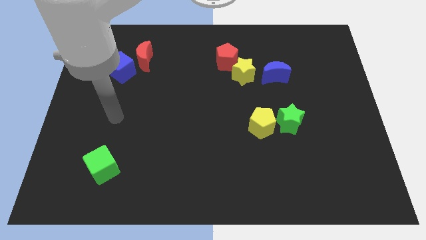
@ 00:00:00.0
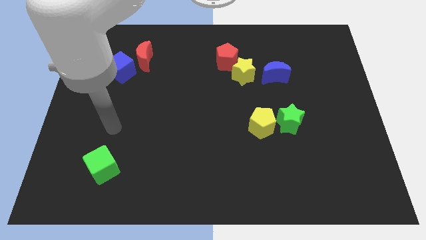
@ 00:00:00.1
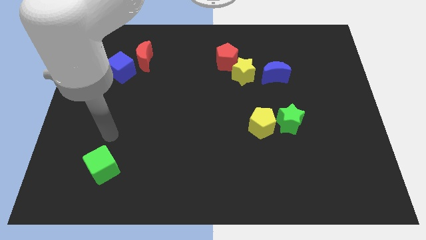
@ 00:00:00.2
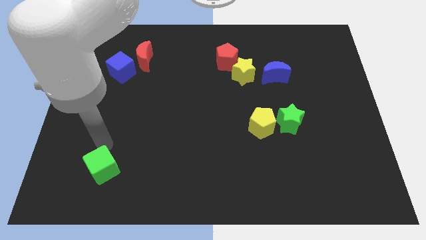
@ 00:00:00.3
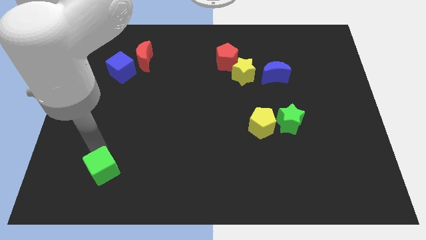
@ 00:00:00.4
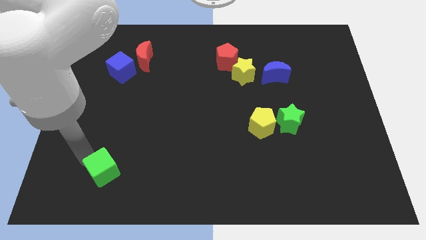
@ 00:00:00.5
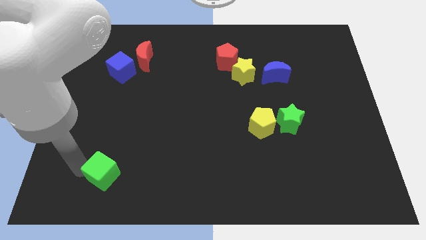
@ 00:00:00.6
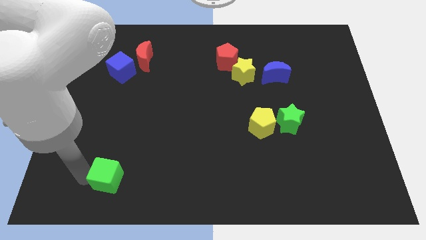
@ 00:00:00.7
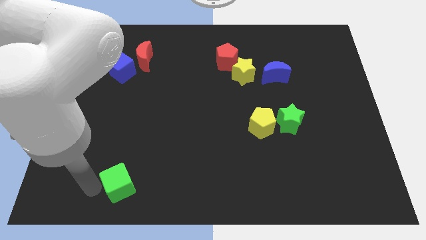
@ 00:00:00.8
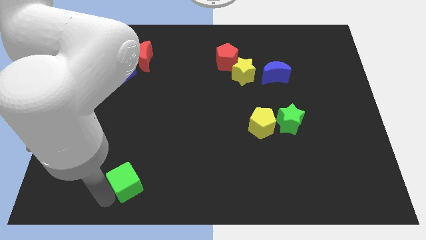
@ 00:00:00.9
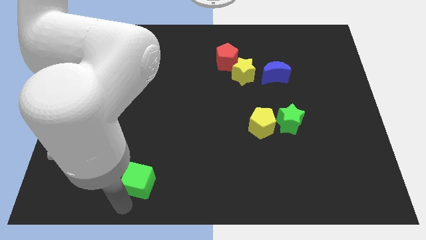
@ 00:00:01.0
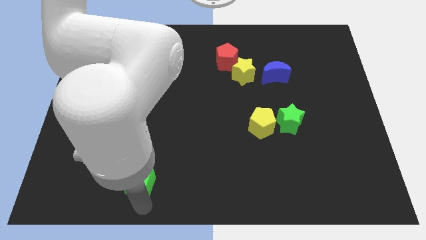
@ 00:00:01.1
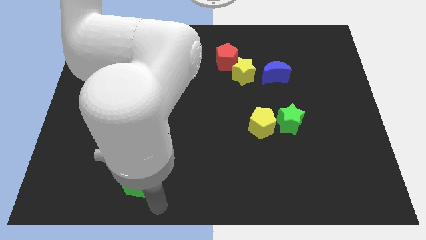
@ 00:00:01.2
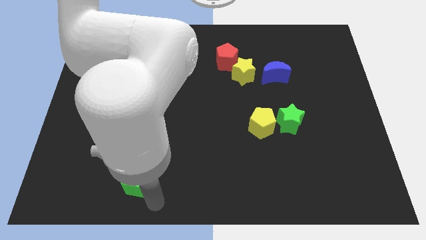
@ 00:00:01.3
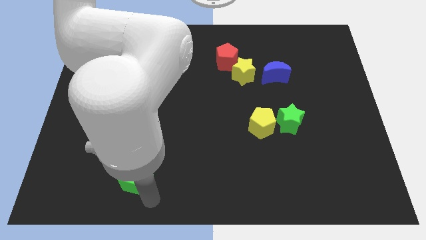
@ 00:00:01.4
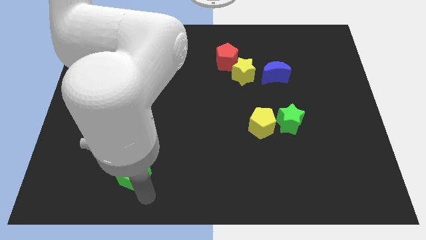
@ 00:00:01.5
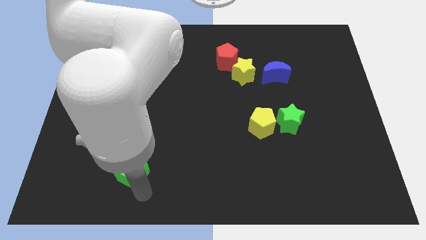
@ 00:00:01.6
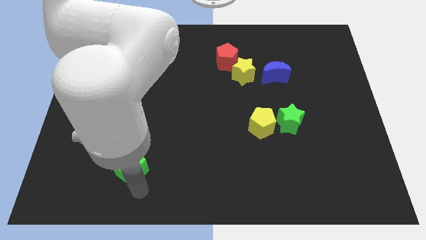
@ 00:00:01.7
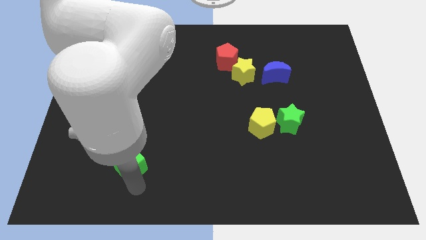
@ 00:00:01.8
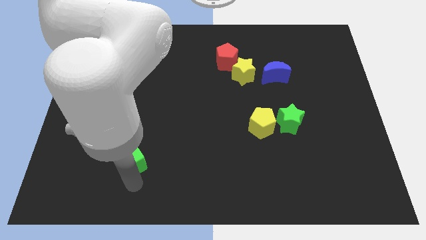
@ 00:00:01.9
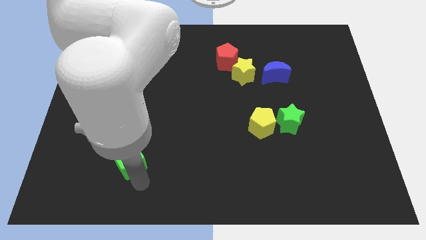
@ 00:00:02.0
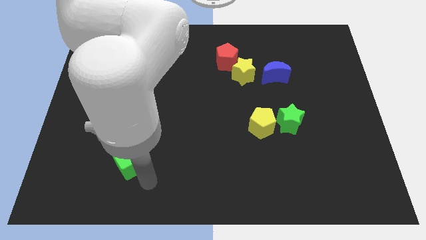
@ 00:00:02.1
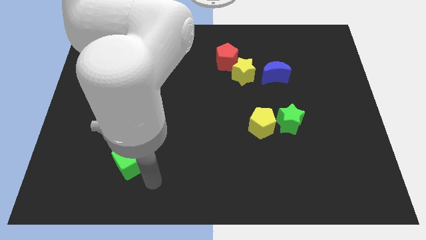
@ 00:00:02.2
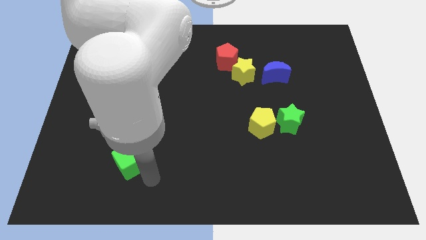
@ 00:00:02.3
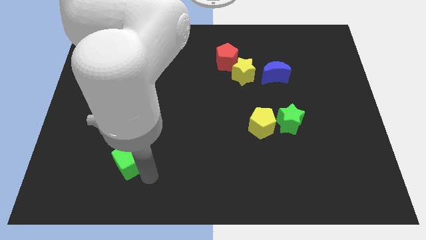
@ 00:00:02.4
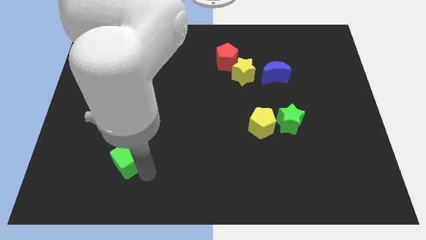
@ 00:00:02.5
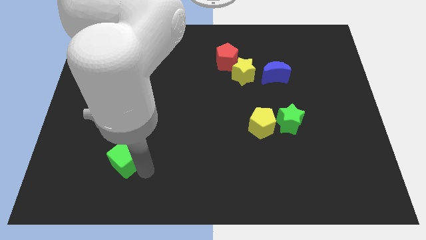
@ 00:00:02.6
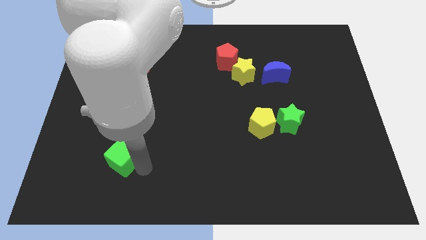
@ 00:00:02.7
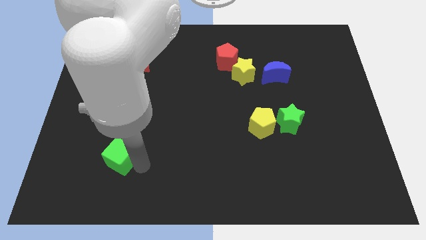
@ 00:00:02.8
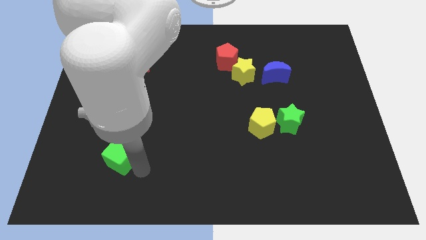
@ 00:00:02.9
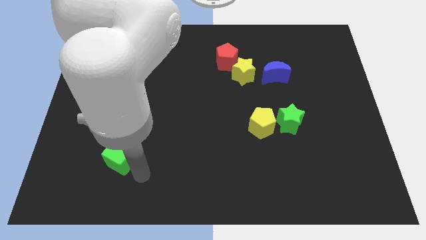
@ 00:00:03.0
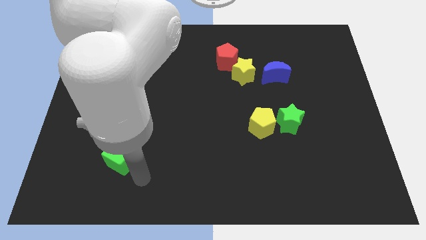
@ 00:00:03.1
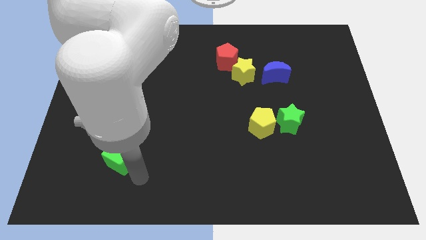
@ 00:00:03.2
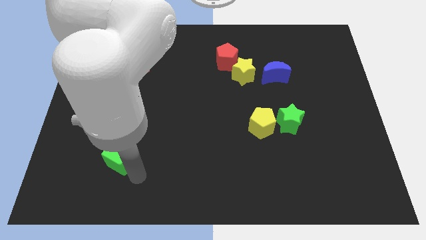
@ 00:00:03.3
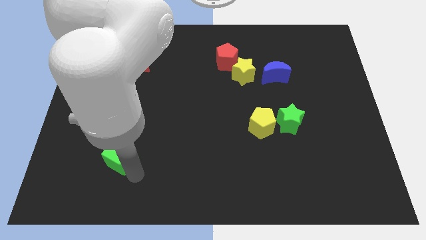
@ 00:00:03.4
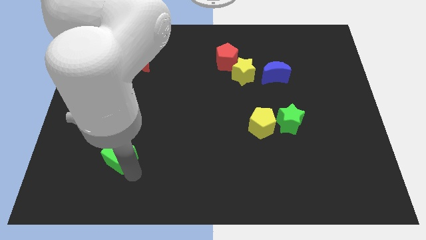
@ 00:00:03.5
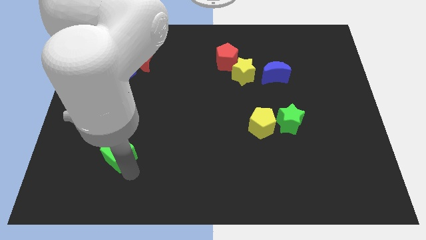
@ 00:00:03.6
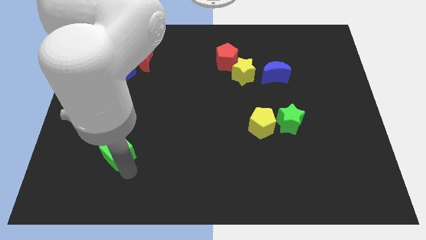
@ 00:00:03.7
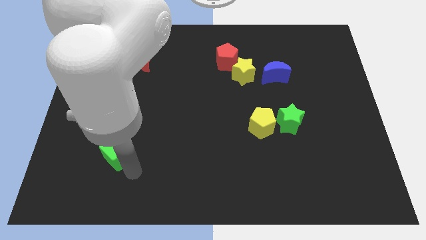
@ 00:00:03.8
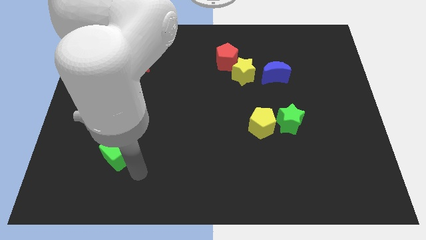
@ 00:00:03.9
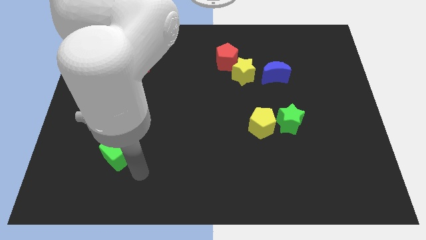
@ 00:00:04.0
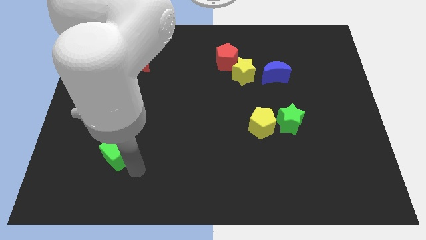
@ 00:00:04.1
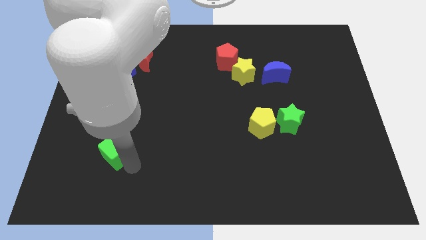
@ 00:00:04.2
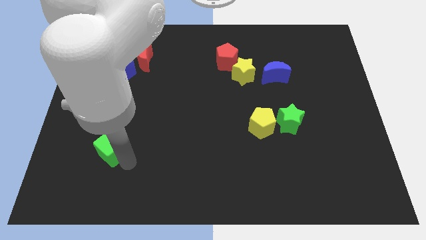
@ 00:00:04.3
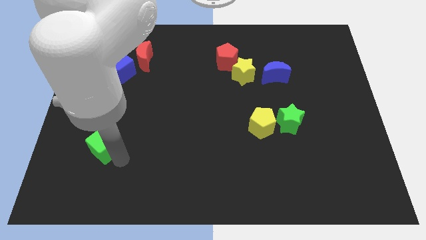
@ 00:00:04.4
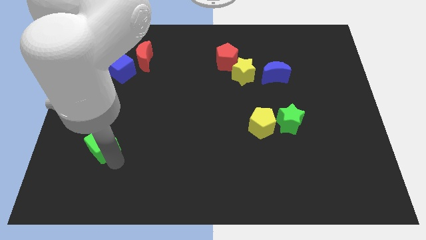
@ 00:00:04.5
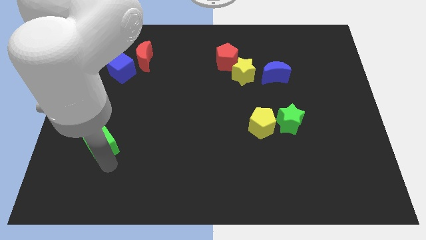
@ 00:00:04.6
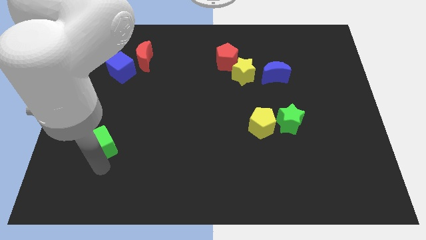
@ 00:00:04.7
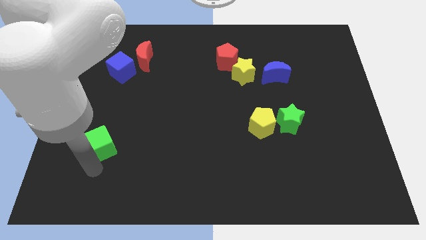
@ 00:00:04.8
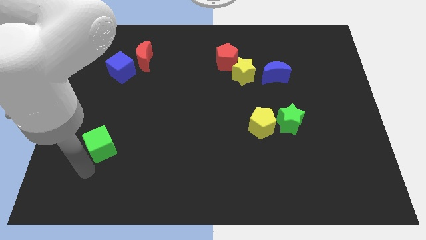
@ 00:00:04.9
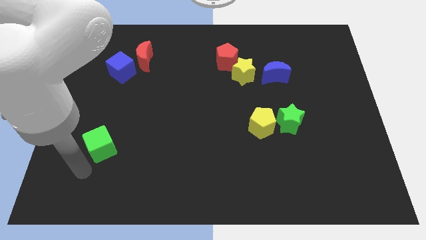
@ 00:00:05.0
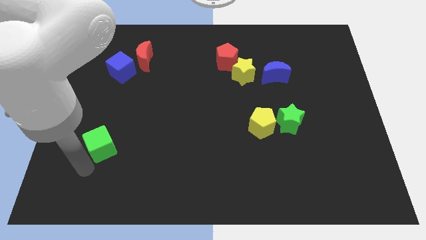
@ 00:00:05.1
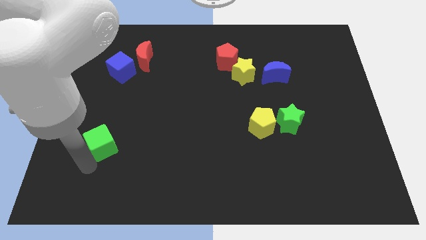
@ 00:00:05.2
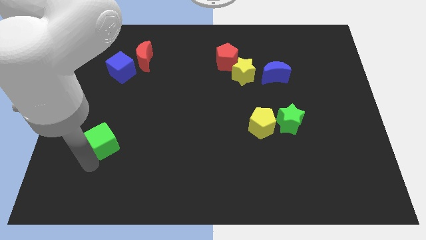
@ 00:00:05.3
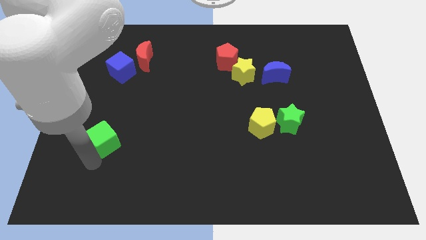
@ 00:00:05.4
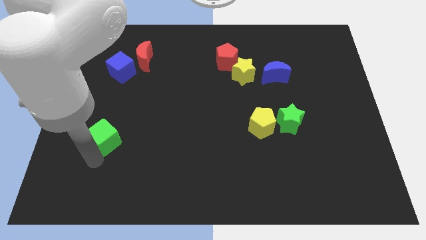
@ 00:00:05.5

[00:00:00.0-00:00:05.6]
slide the green cube up a little bit

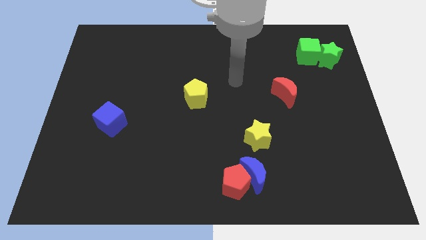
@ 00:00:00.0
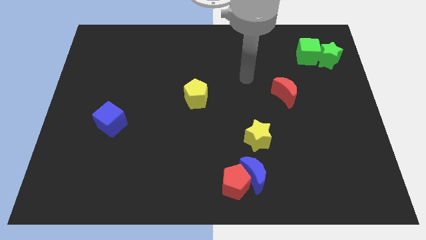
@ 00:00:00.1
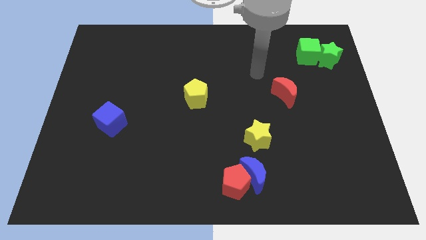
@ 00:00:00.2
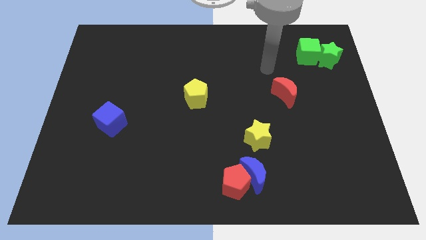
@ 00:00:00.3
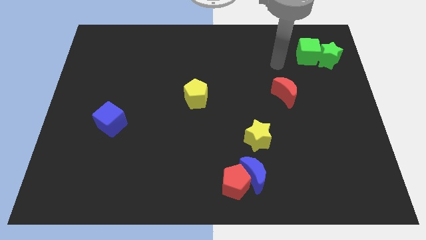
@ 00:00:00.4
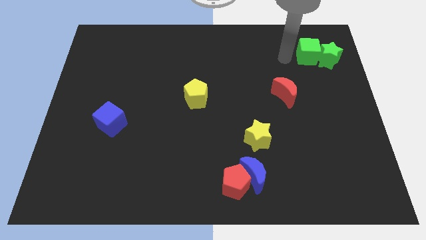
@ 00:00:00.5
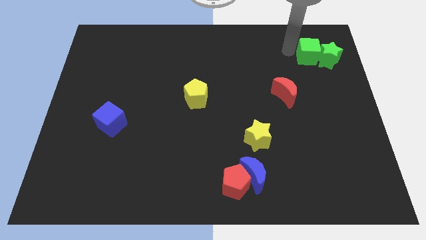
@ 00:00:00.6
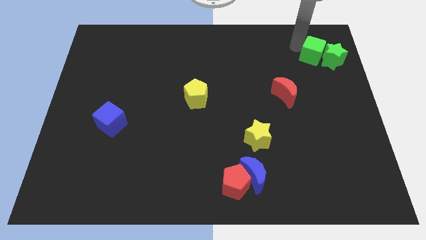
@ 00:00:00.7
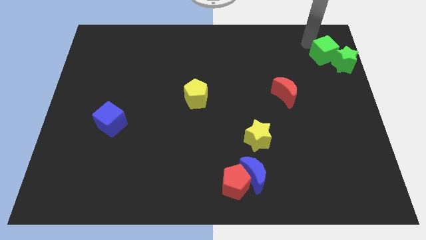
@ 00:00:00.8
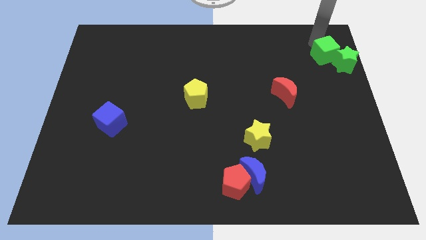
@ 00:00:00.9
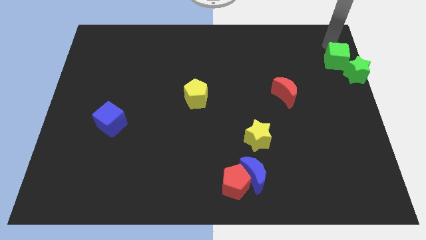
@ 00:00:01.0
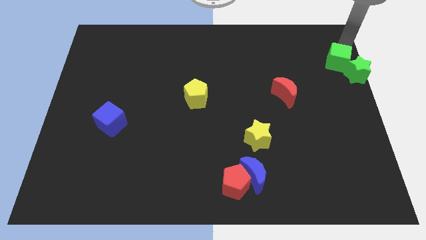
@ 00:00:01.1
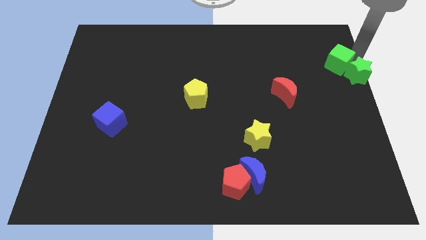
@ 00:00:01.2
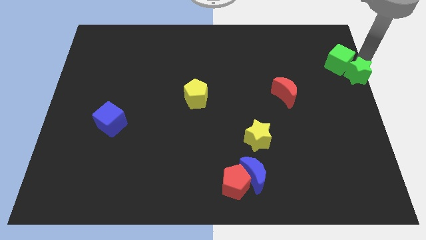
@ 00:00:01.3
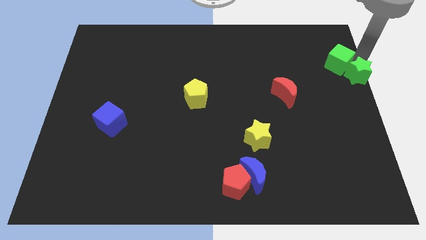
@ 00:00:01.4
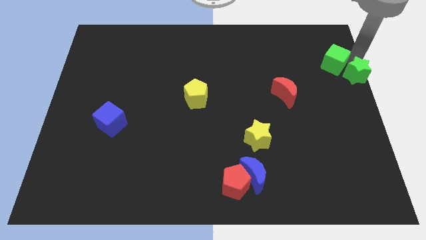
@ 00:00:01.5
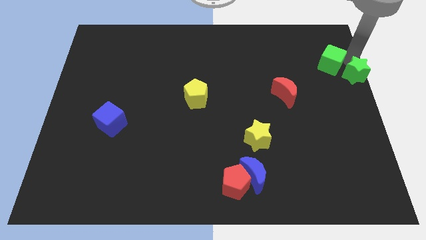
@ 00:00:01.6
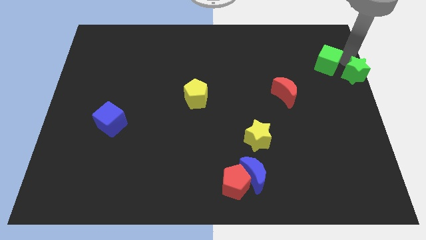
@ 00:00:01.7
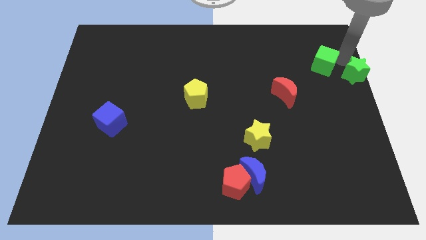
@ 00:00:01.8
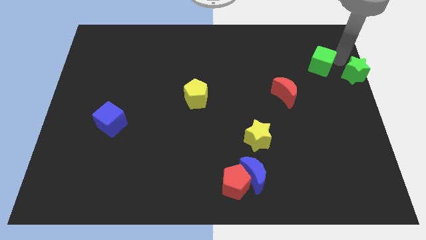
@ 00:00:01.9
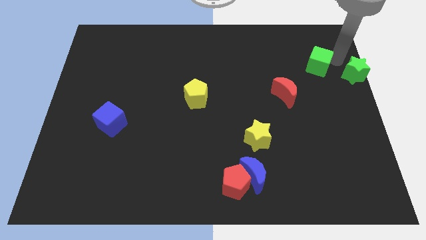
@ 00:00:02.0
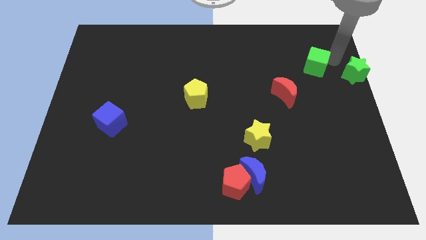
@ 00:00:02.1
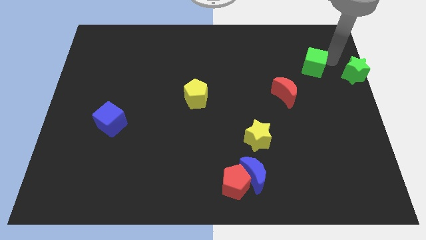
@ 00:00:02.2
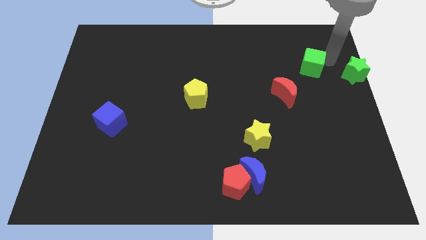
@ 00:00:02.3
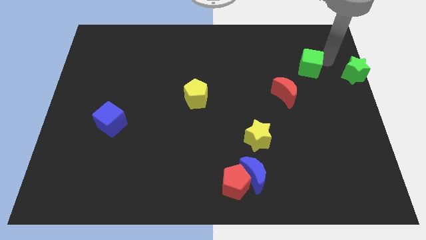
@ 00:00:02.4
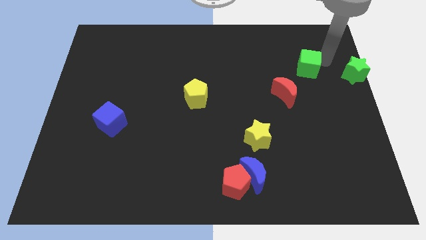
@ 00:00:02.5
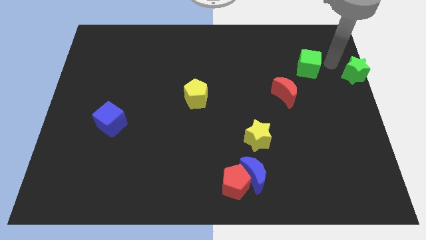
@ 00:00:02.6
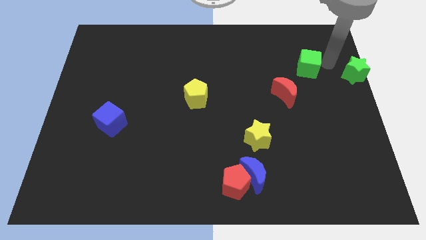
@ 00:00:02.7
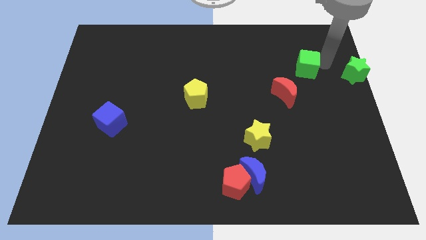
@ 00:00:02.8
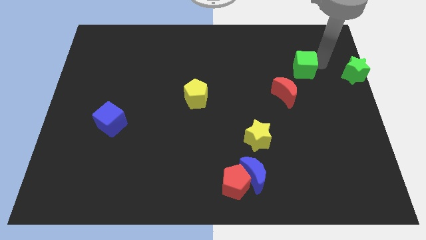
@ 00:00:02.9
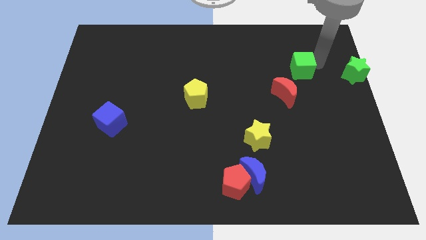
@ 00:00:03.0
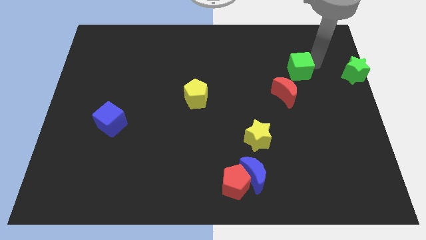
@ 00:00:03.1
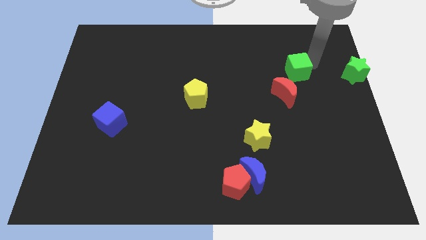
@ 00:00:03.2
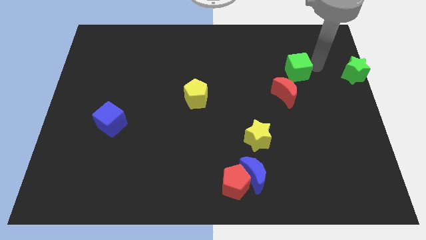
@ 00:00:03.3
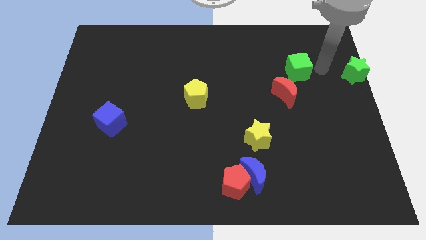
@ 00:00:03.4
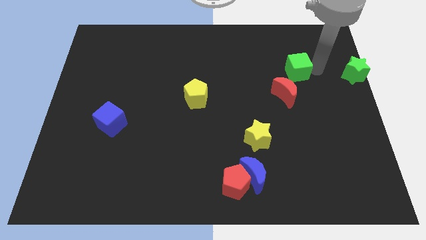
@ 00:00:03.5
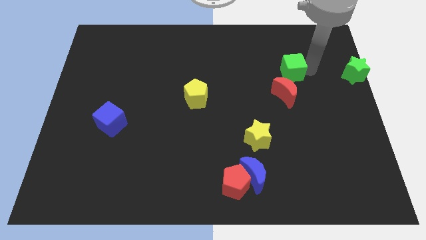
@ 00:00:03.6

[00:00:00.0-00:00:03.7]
move the green cube diagonally down and to the left a little bit
